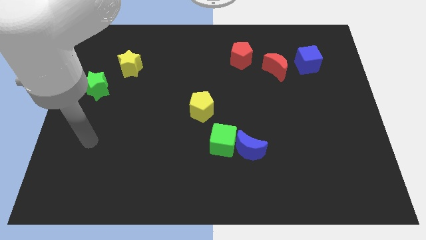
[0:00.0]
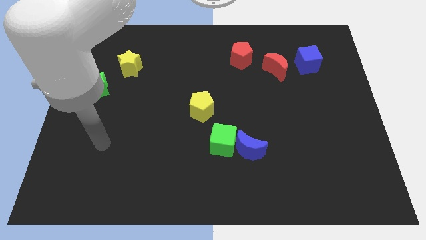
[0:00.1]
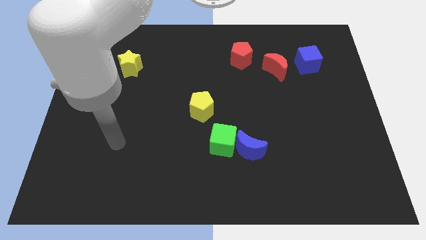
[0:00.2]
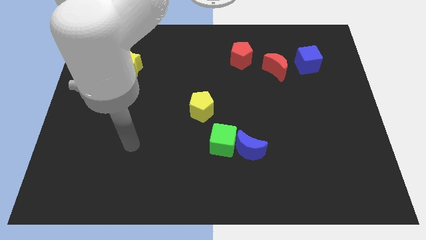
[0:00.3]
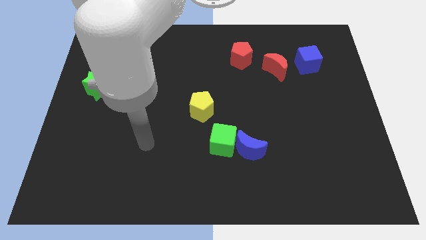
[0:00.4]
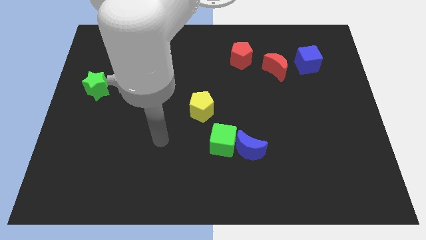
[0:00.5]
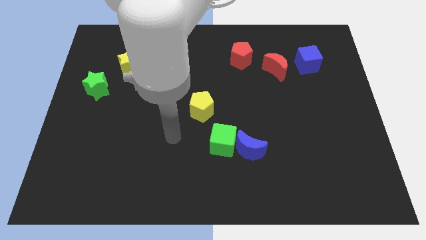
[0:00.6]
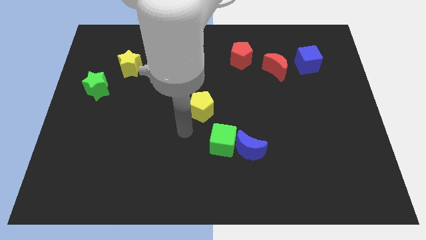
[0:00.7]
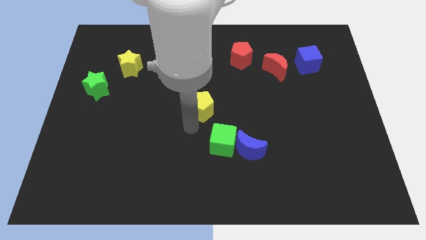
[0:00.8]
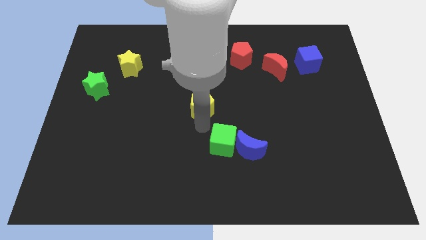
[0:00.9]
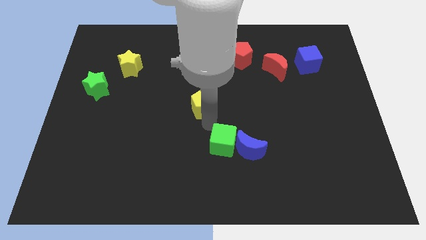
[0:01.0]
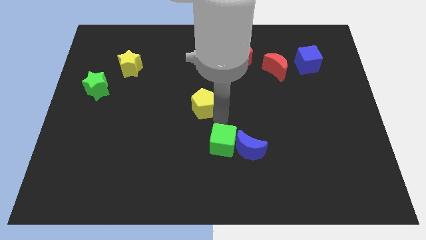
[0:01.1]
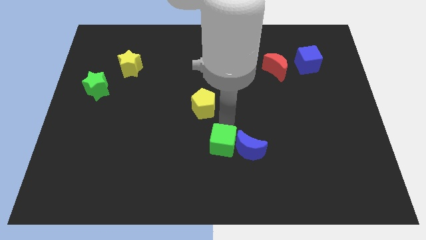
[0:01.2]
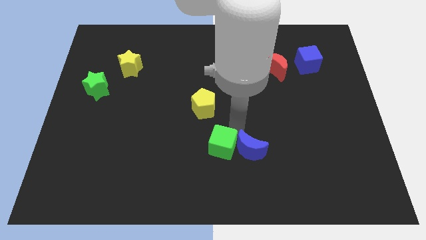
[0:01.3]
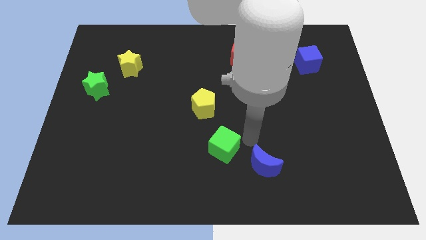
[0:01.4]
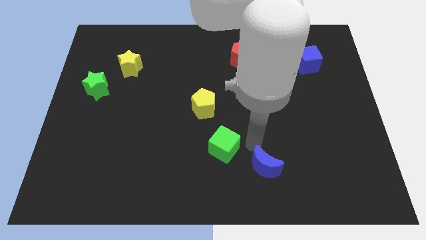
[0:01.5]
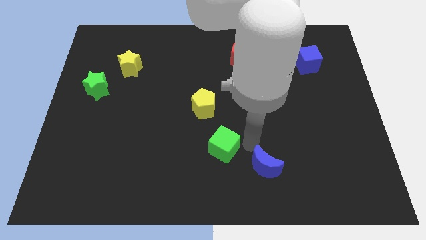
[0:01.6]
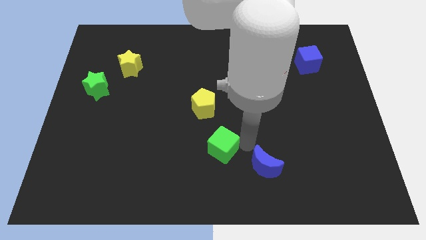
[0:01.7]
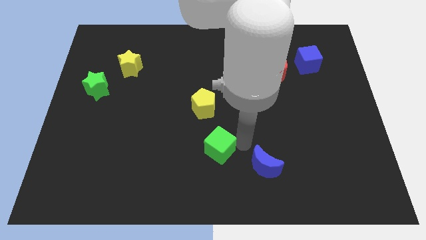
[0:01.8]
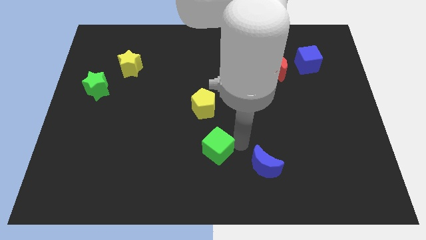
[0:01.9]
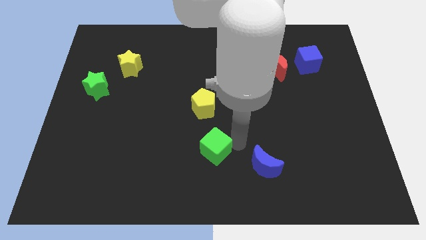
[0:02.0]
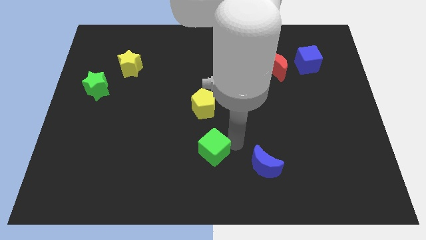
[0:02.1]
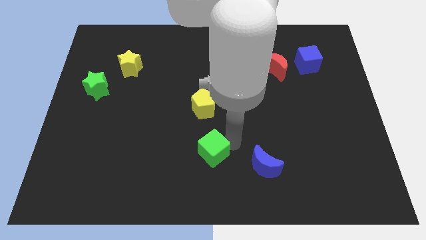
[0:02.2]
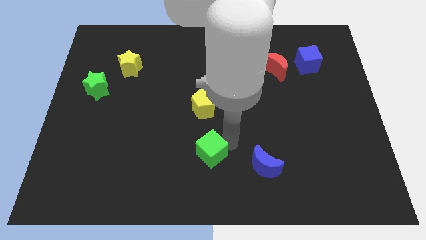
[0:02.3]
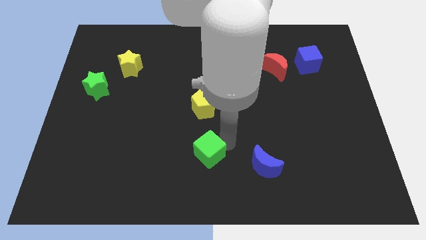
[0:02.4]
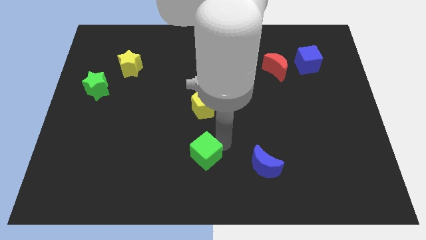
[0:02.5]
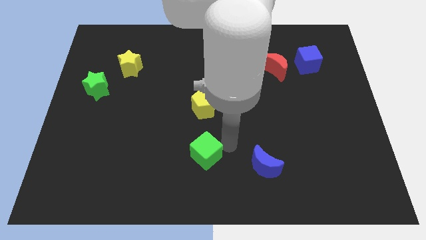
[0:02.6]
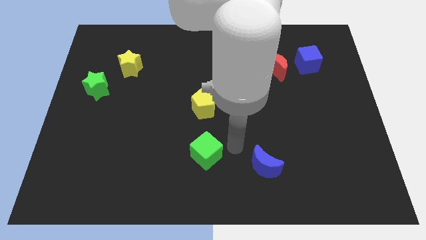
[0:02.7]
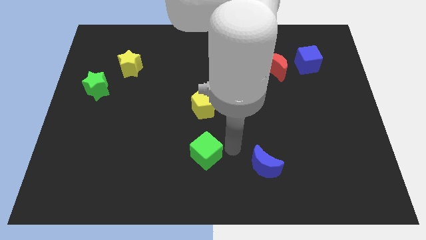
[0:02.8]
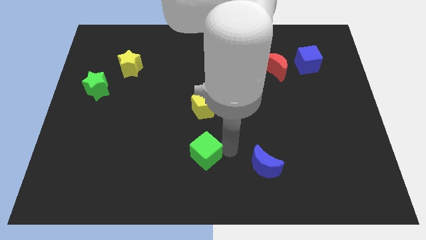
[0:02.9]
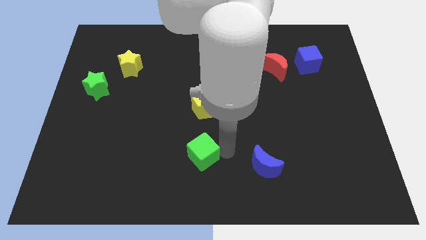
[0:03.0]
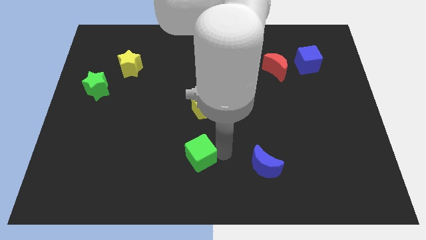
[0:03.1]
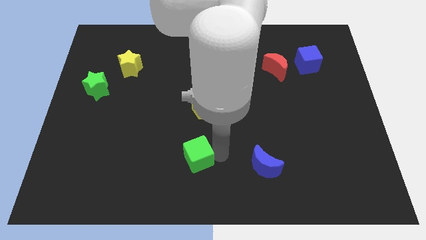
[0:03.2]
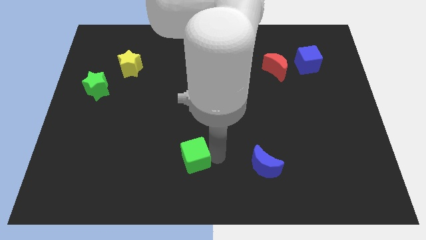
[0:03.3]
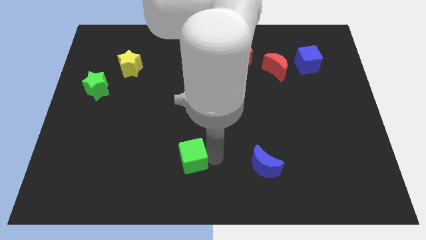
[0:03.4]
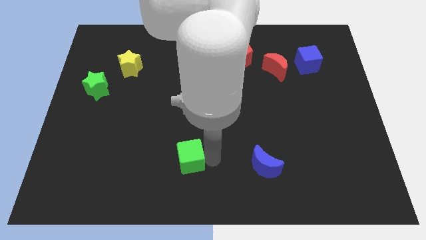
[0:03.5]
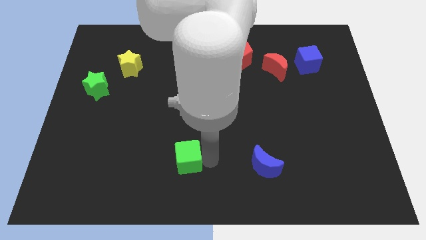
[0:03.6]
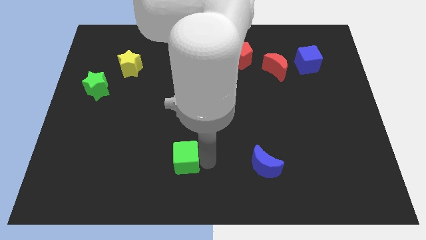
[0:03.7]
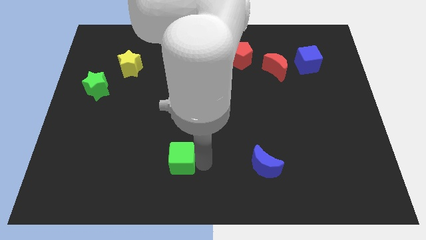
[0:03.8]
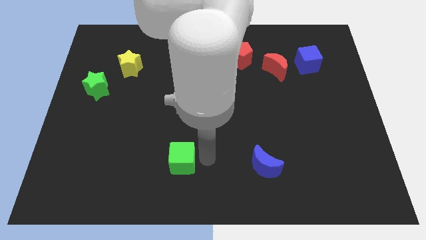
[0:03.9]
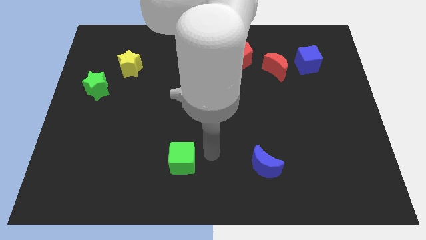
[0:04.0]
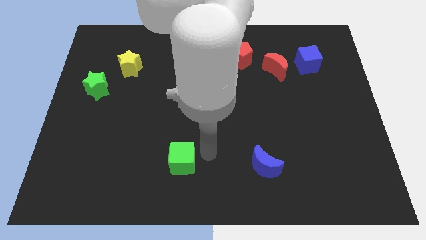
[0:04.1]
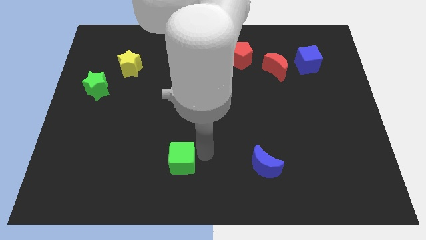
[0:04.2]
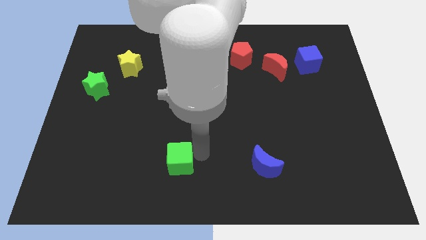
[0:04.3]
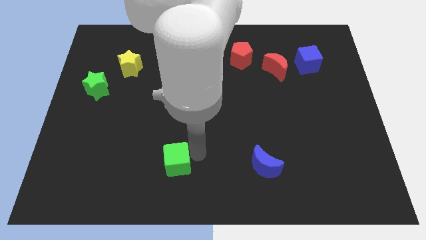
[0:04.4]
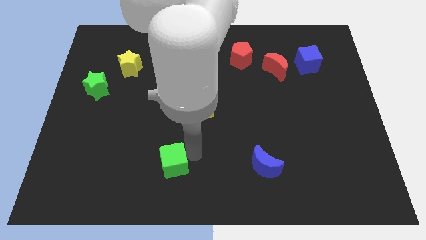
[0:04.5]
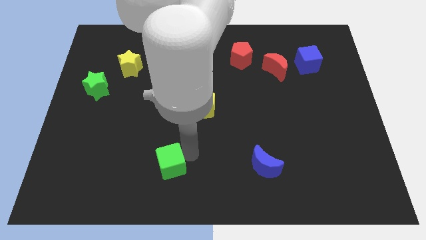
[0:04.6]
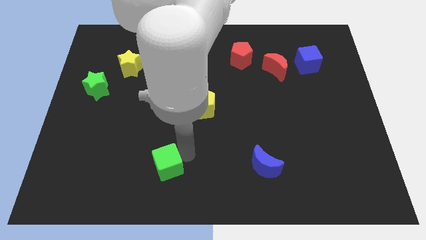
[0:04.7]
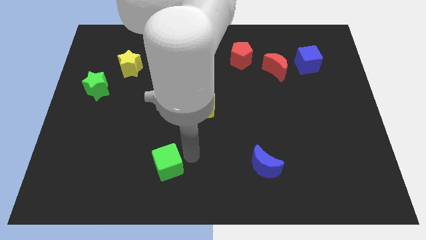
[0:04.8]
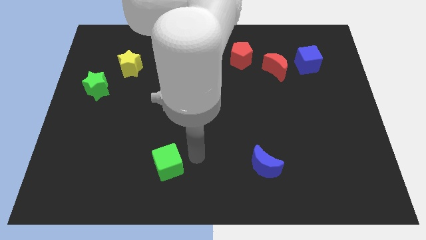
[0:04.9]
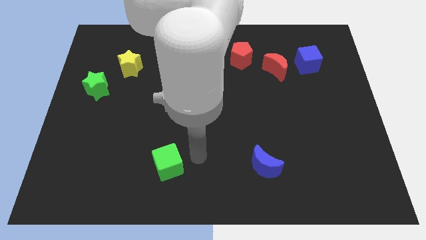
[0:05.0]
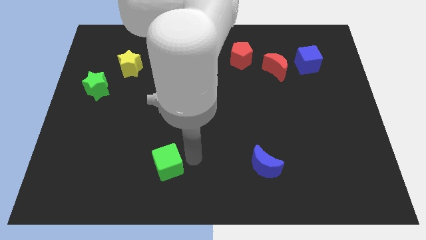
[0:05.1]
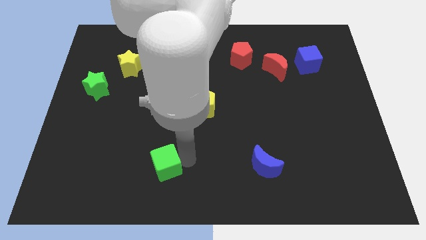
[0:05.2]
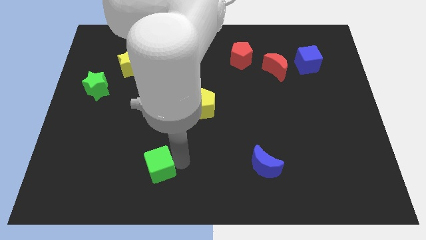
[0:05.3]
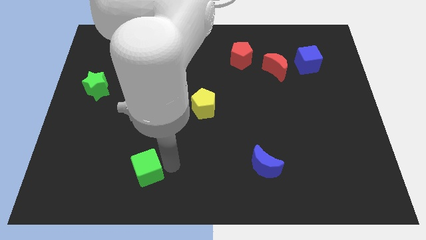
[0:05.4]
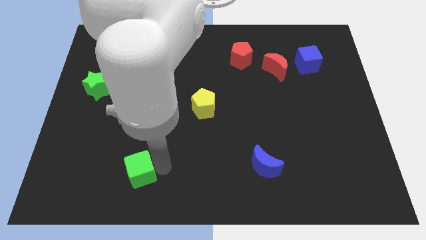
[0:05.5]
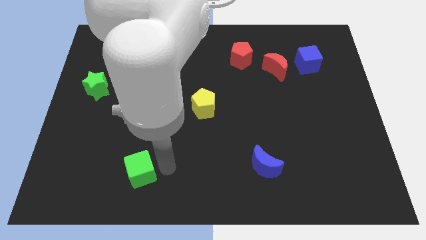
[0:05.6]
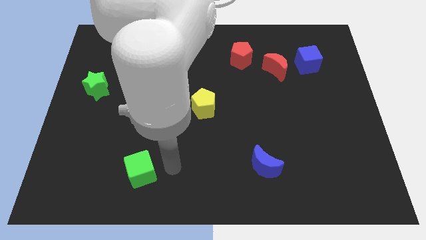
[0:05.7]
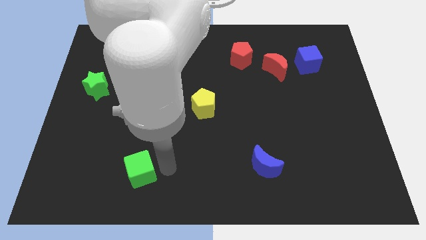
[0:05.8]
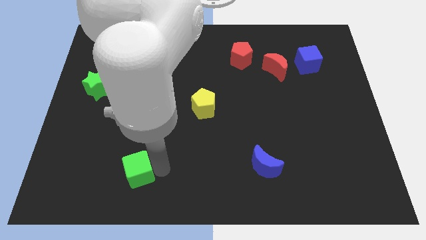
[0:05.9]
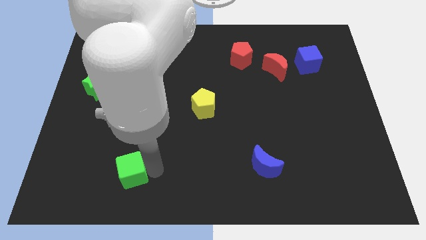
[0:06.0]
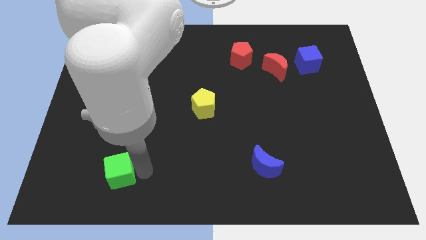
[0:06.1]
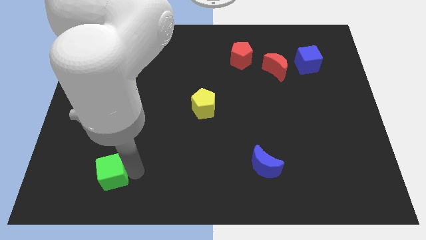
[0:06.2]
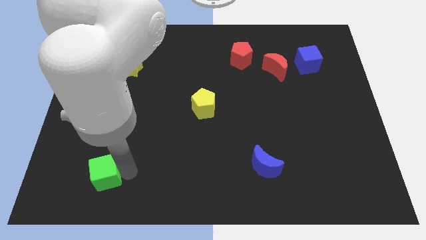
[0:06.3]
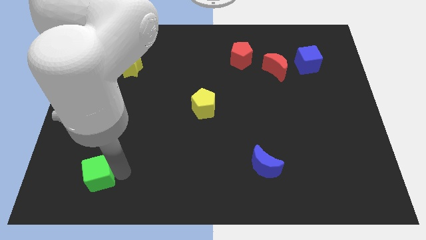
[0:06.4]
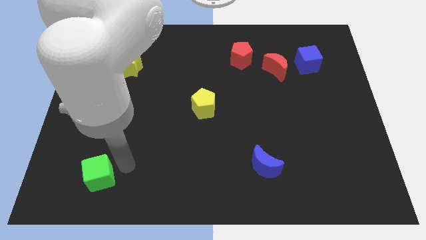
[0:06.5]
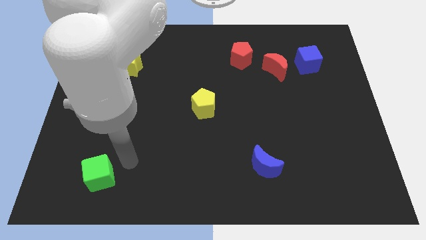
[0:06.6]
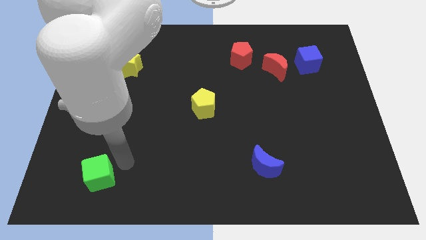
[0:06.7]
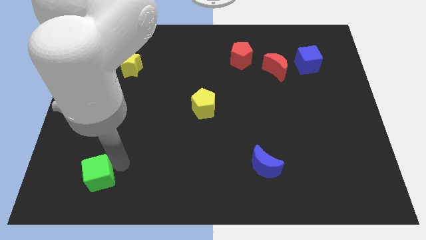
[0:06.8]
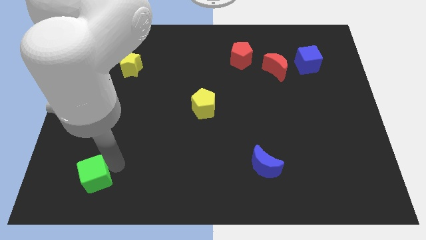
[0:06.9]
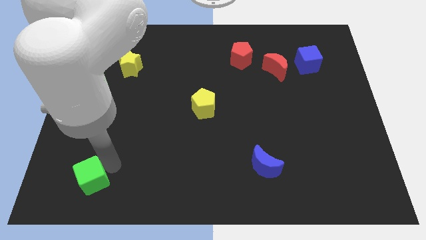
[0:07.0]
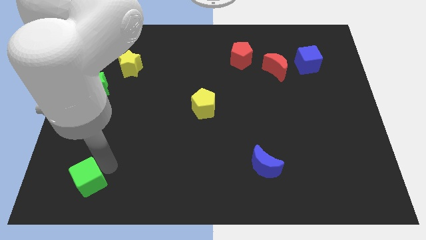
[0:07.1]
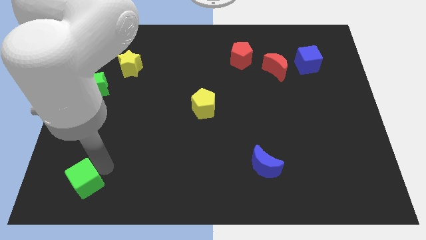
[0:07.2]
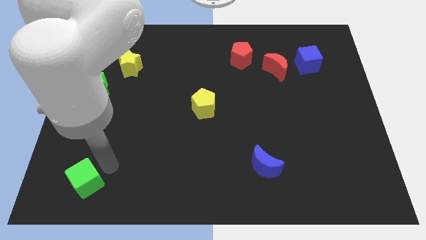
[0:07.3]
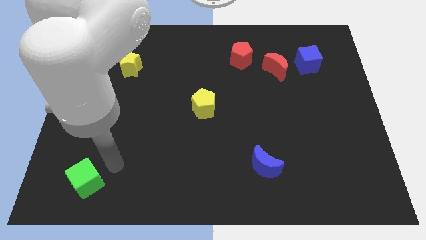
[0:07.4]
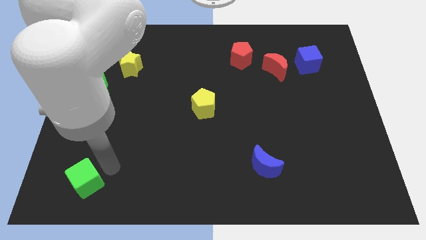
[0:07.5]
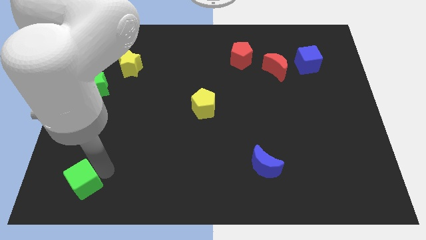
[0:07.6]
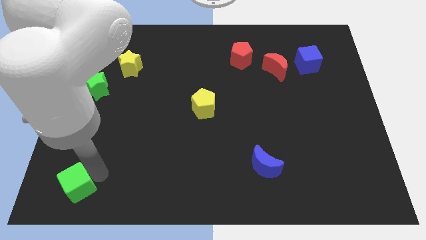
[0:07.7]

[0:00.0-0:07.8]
put the green cube to the lower left corner
